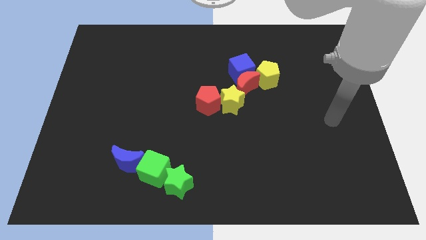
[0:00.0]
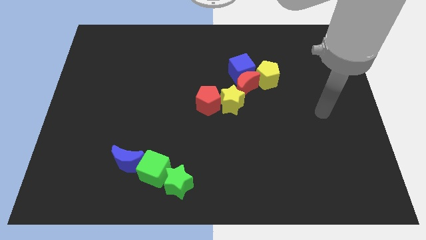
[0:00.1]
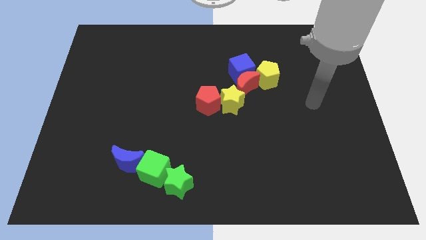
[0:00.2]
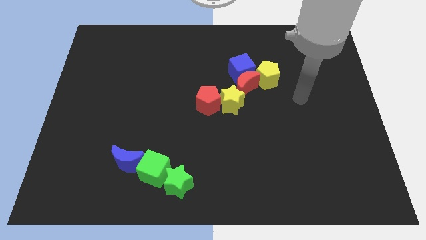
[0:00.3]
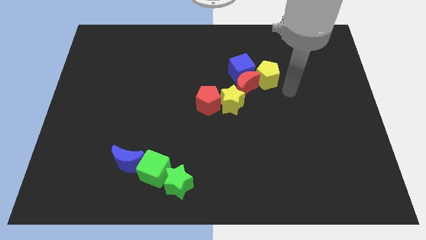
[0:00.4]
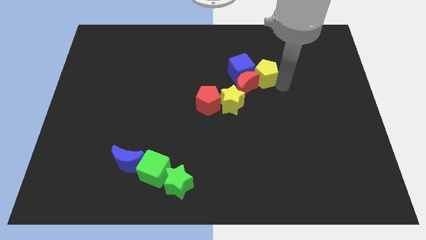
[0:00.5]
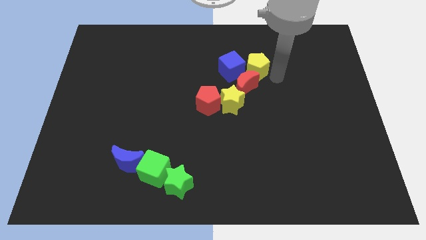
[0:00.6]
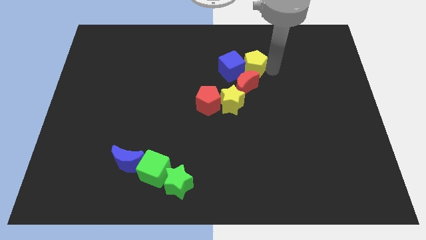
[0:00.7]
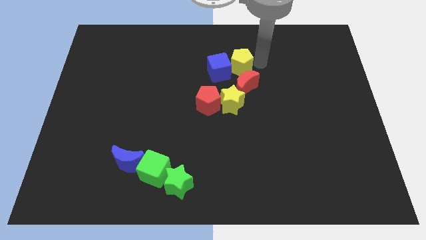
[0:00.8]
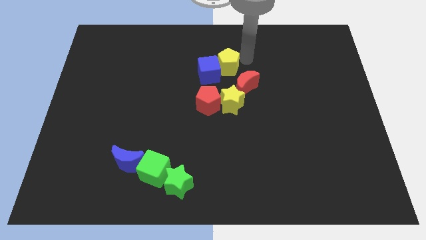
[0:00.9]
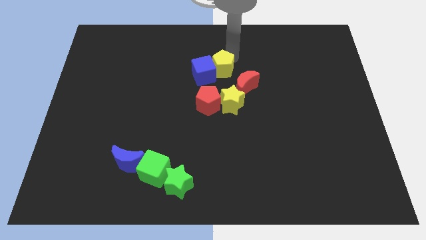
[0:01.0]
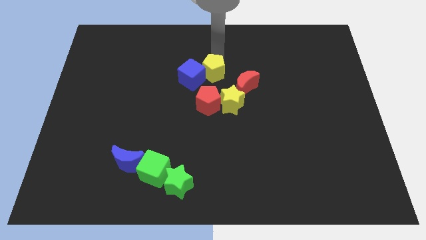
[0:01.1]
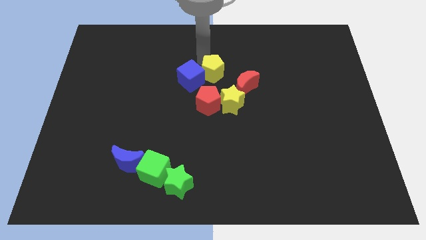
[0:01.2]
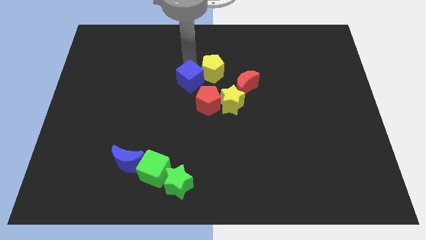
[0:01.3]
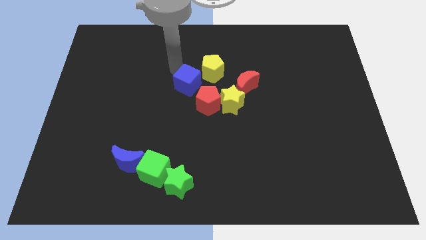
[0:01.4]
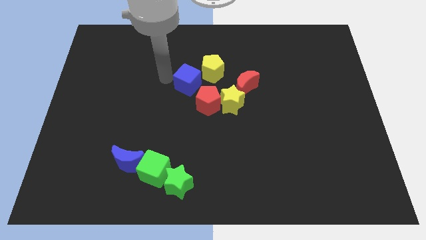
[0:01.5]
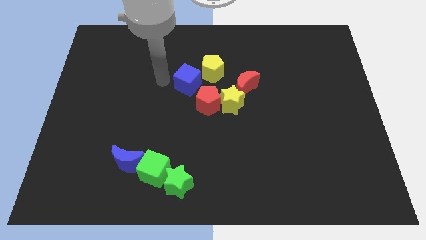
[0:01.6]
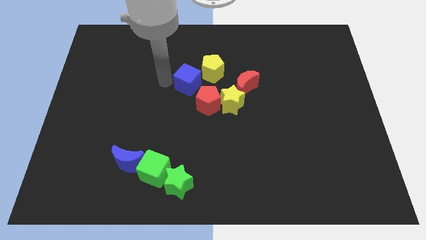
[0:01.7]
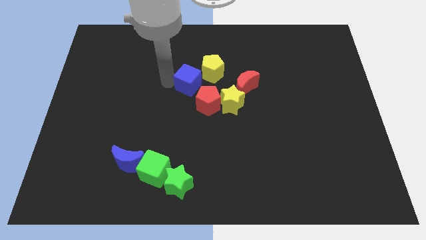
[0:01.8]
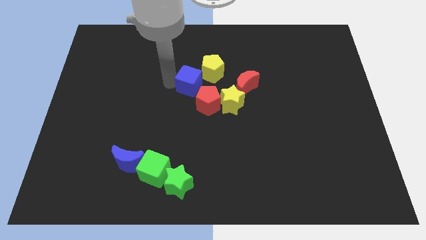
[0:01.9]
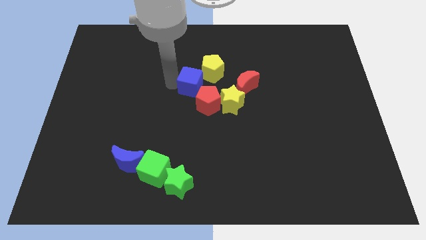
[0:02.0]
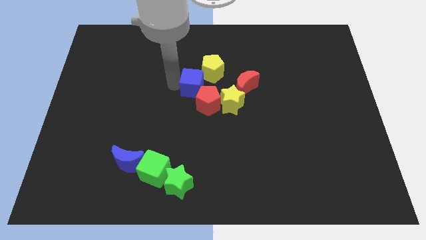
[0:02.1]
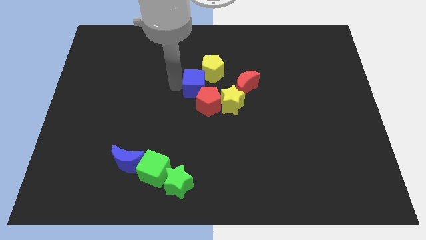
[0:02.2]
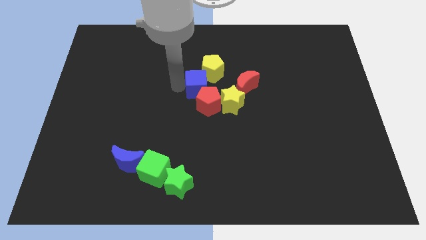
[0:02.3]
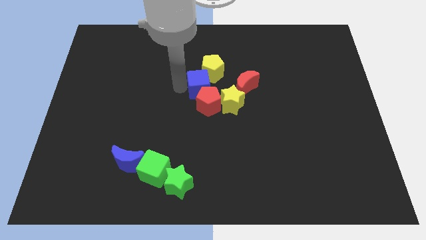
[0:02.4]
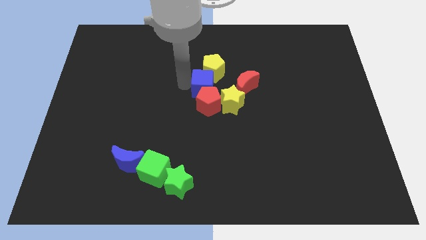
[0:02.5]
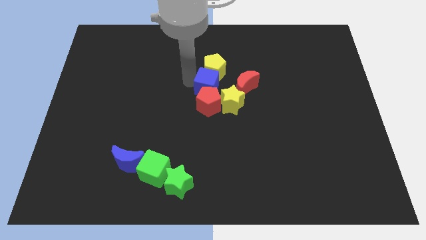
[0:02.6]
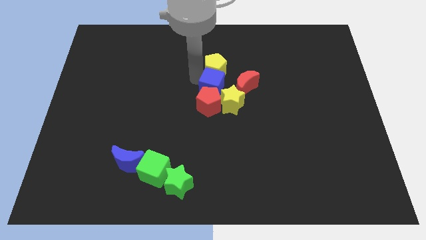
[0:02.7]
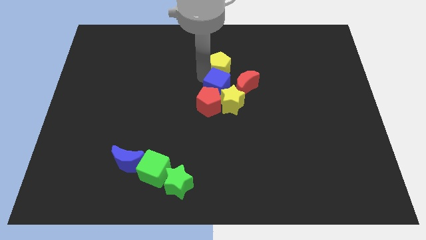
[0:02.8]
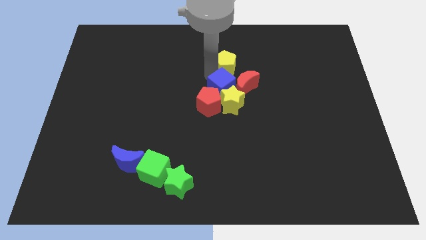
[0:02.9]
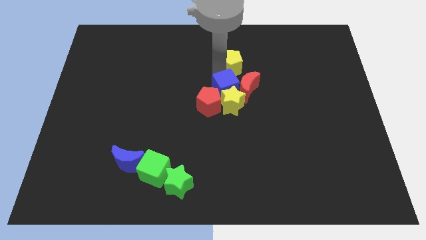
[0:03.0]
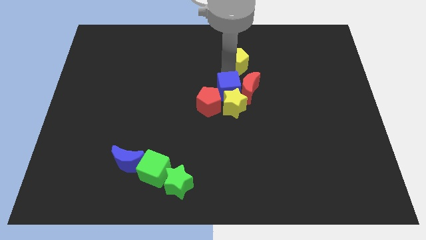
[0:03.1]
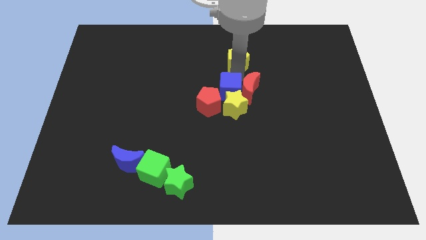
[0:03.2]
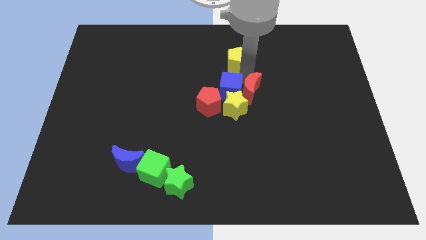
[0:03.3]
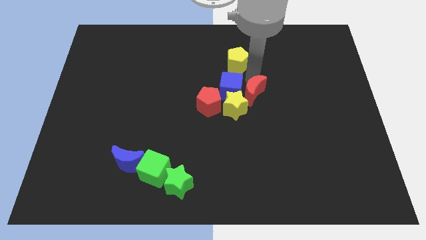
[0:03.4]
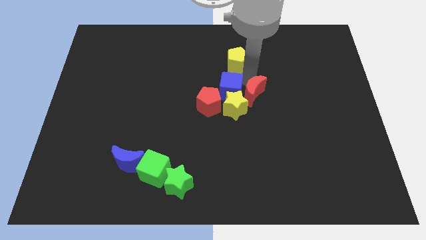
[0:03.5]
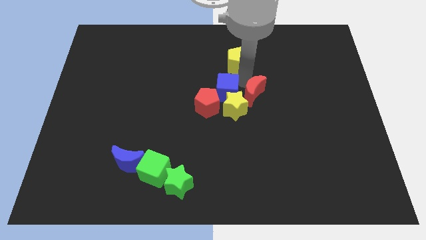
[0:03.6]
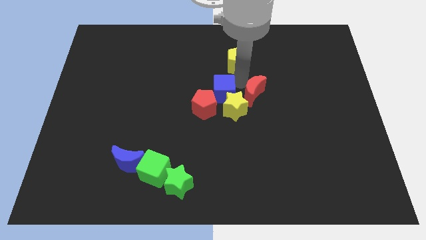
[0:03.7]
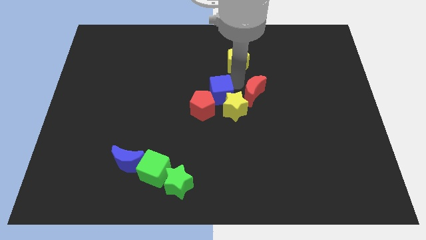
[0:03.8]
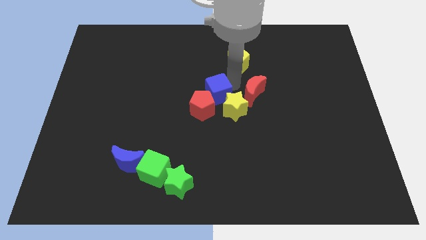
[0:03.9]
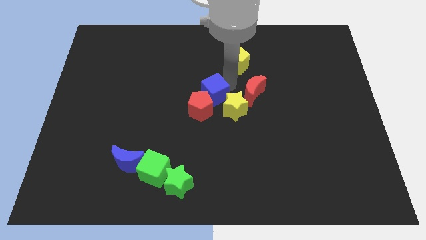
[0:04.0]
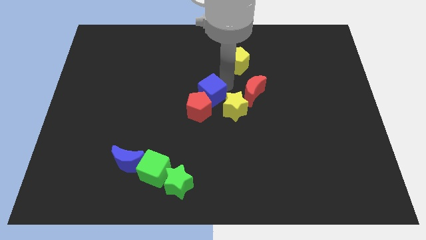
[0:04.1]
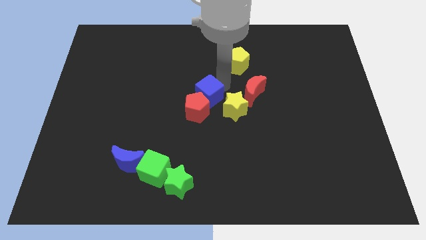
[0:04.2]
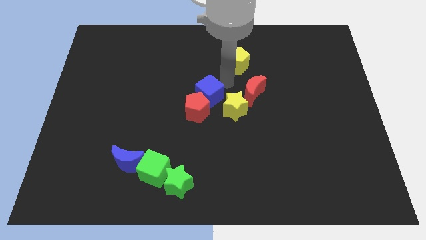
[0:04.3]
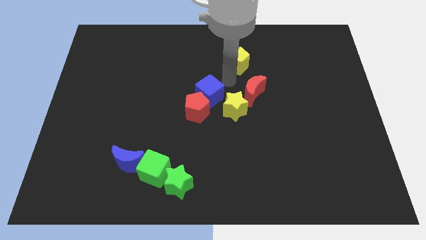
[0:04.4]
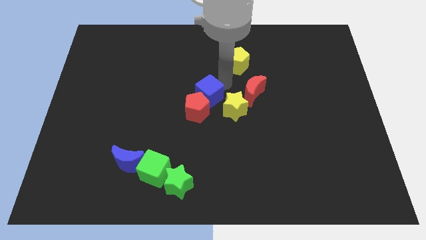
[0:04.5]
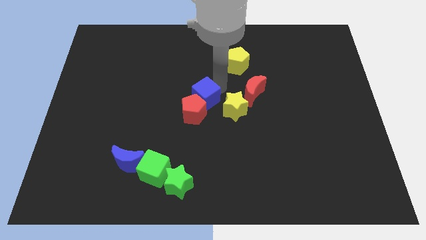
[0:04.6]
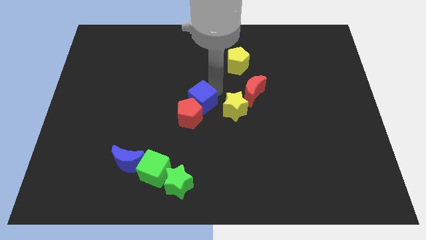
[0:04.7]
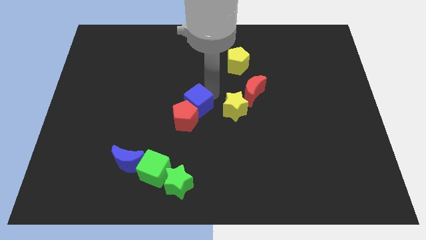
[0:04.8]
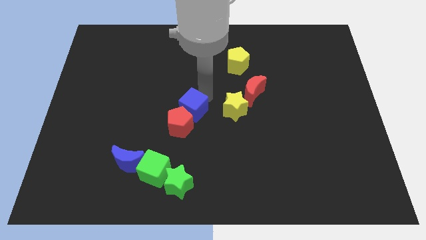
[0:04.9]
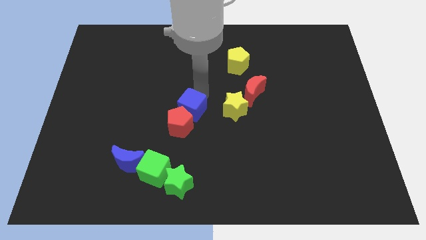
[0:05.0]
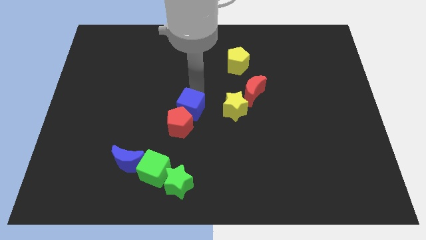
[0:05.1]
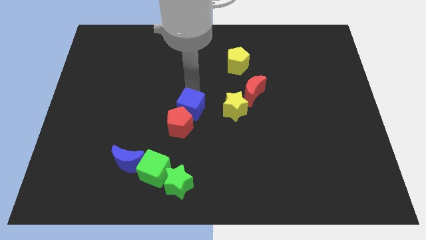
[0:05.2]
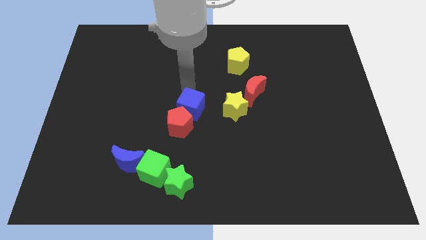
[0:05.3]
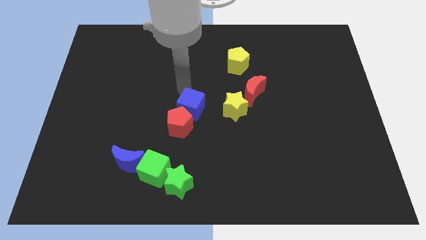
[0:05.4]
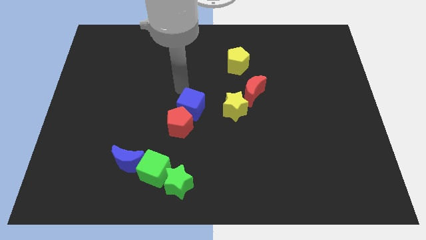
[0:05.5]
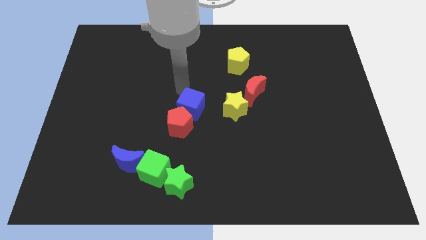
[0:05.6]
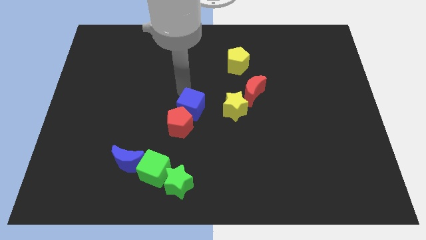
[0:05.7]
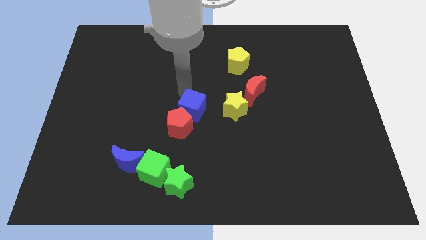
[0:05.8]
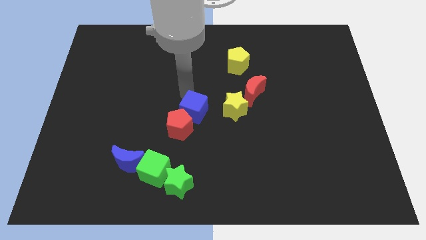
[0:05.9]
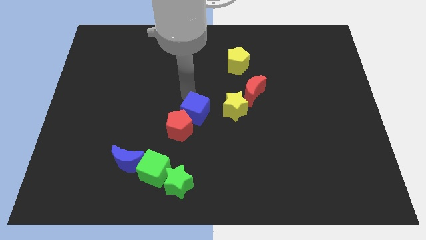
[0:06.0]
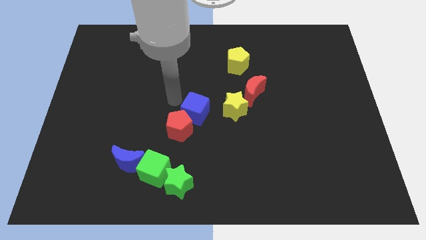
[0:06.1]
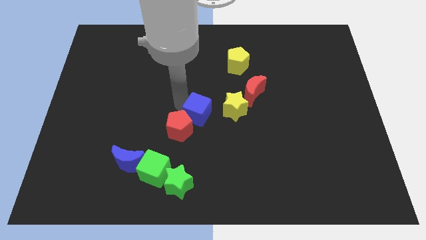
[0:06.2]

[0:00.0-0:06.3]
push the blue cube down somewhat

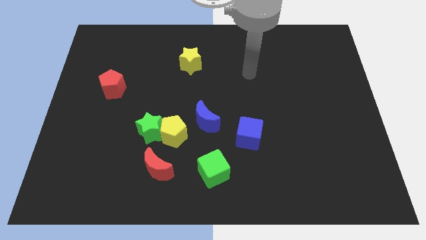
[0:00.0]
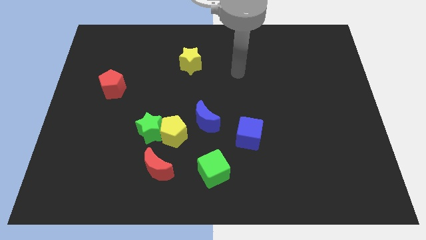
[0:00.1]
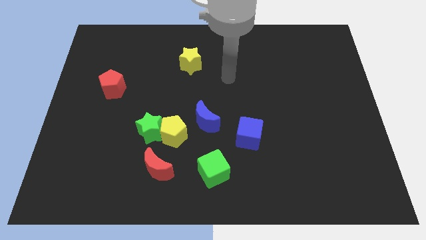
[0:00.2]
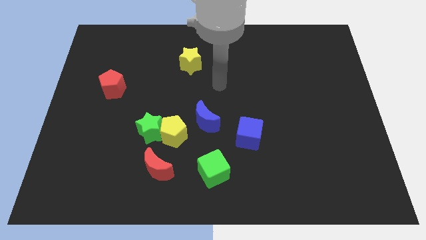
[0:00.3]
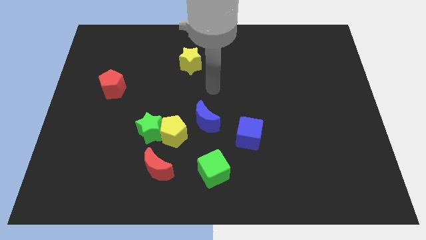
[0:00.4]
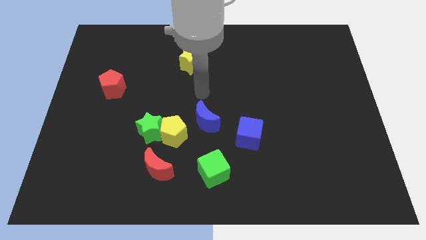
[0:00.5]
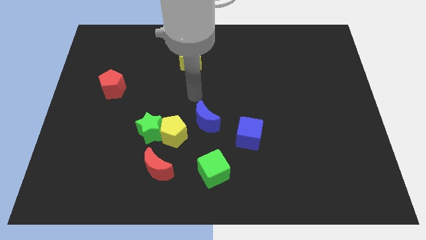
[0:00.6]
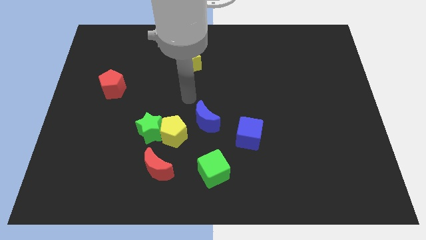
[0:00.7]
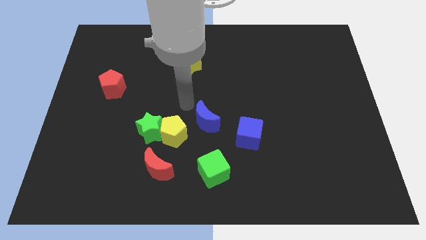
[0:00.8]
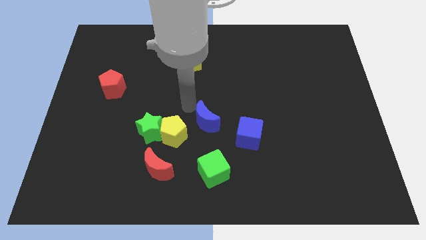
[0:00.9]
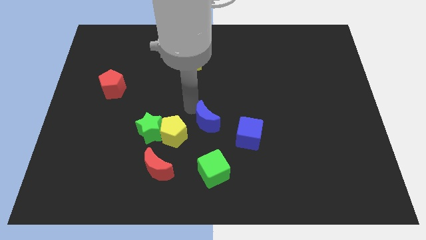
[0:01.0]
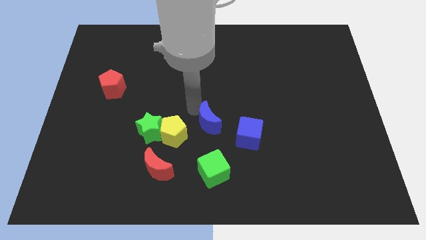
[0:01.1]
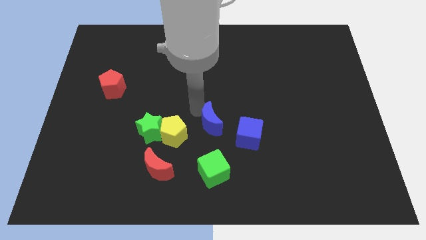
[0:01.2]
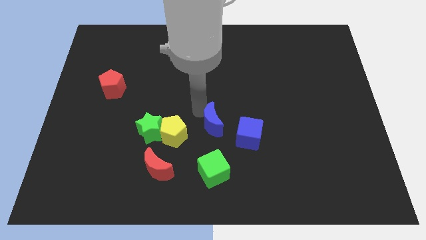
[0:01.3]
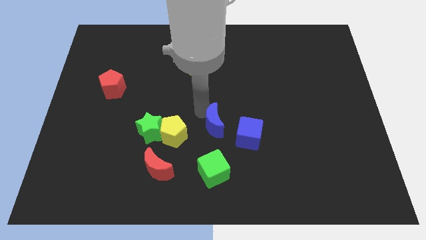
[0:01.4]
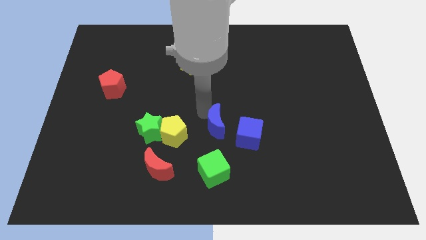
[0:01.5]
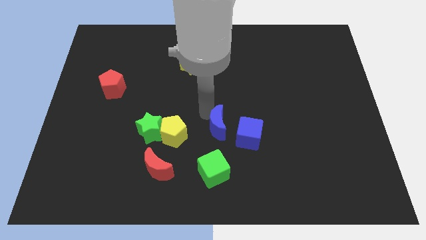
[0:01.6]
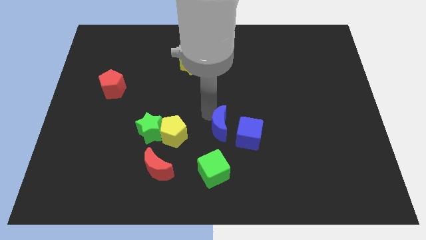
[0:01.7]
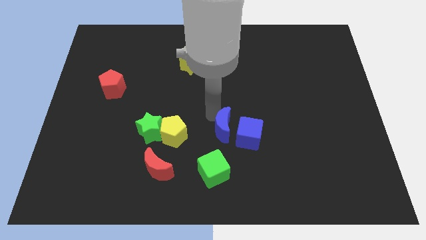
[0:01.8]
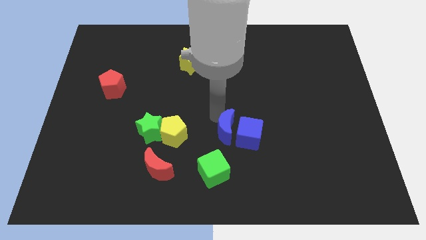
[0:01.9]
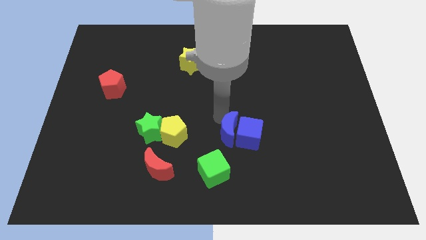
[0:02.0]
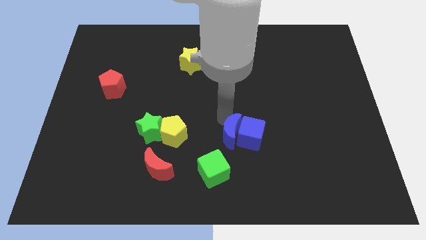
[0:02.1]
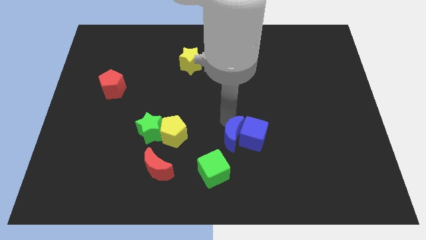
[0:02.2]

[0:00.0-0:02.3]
slide the blue moon a little bit down and to the right diagonally
